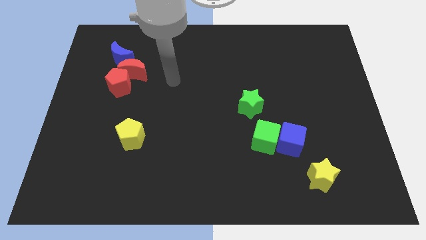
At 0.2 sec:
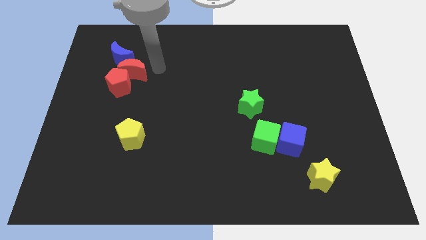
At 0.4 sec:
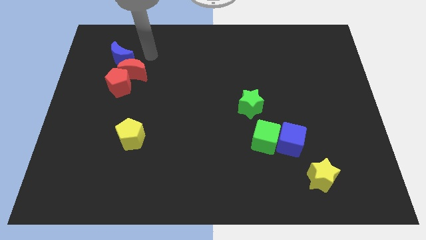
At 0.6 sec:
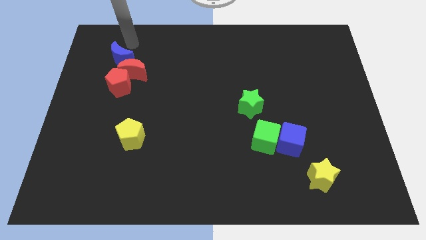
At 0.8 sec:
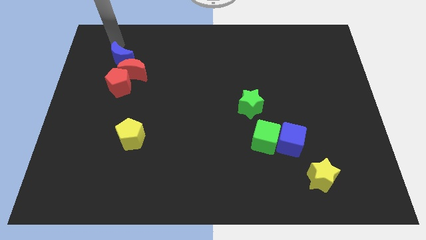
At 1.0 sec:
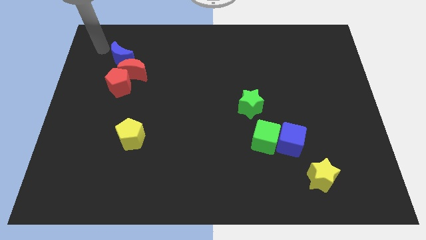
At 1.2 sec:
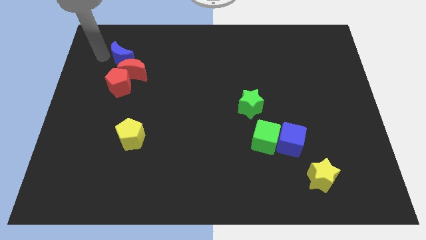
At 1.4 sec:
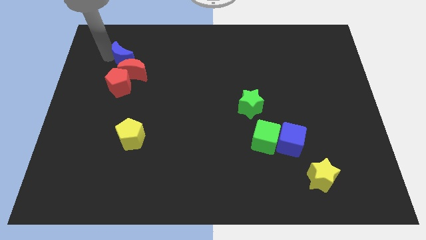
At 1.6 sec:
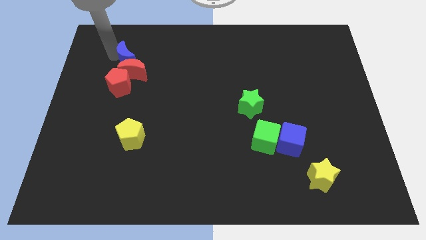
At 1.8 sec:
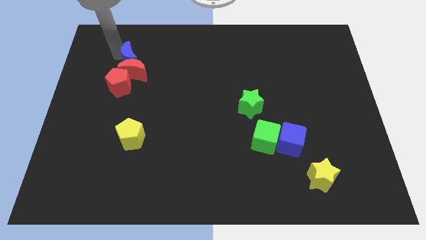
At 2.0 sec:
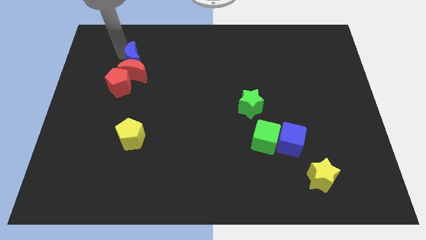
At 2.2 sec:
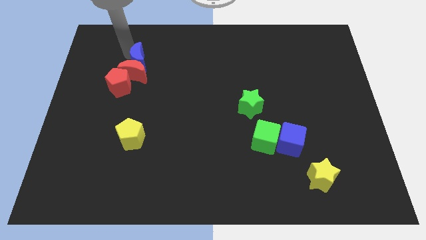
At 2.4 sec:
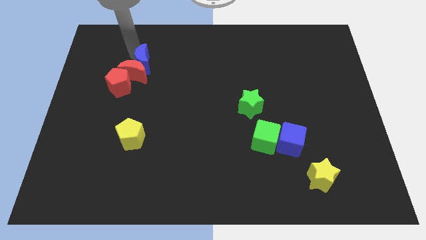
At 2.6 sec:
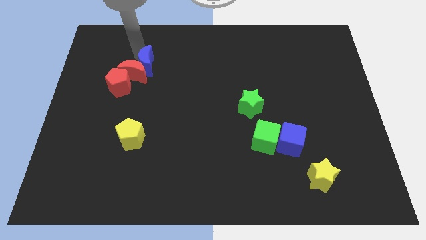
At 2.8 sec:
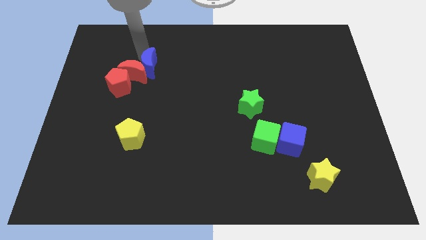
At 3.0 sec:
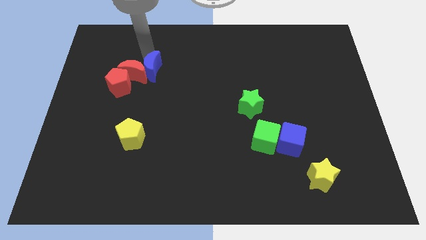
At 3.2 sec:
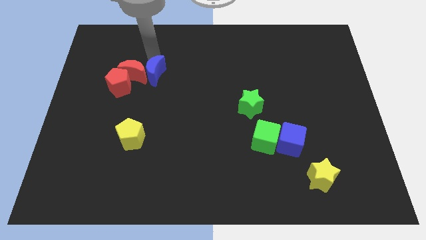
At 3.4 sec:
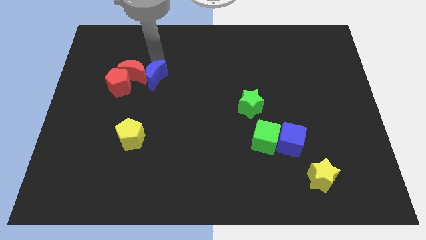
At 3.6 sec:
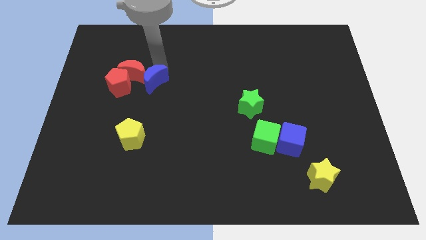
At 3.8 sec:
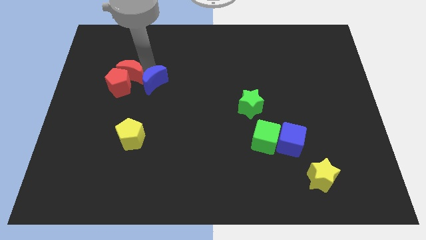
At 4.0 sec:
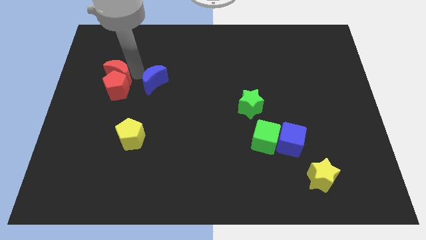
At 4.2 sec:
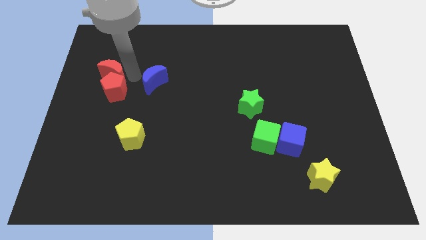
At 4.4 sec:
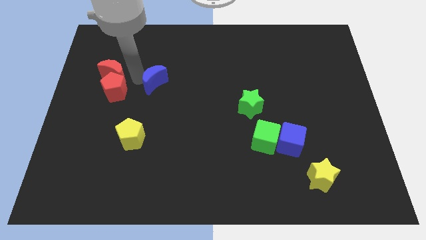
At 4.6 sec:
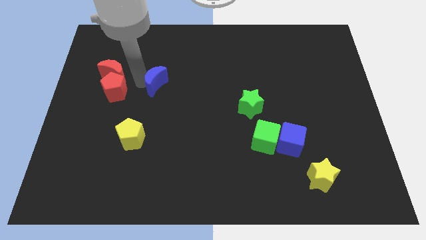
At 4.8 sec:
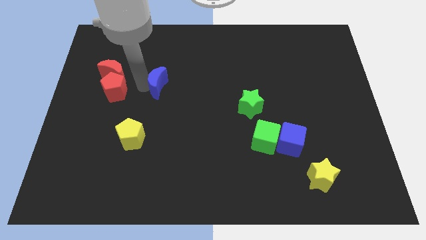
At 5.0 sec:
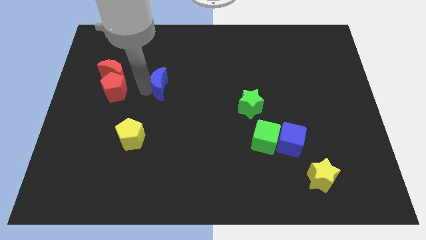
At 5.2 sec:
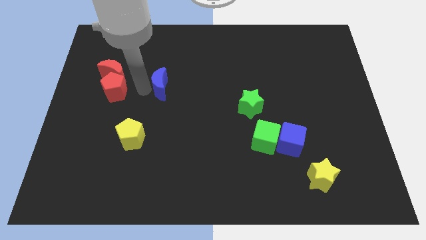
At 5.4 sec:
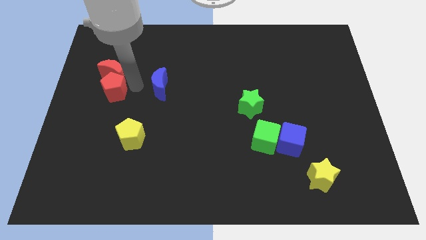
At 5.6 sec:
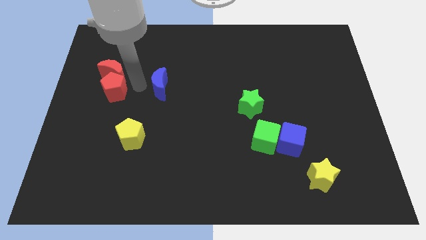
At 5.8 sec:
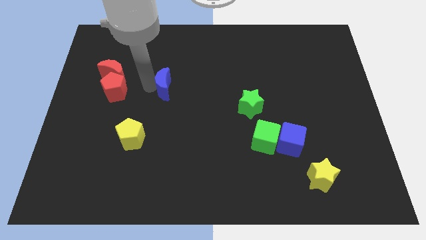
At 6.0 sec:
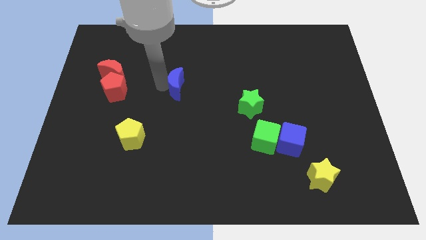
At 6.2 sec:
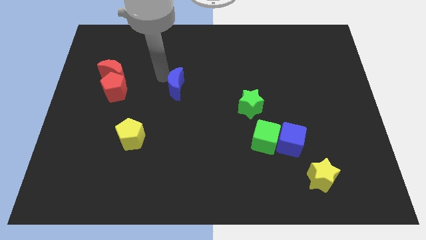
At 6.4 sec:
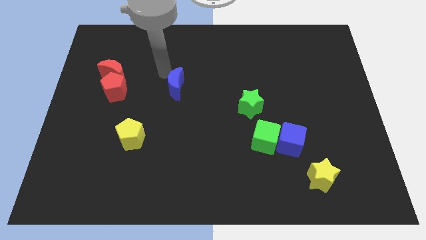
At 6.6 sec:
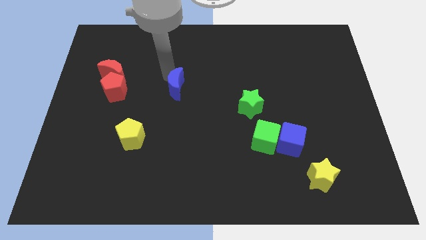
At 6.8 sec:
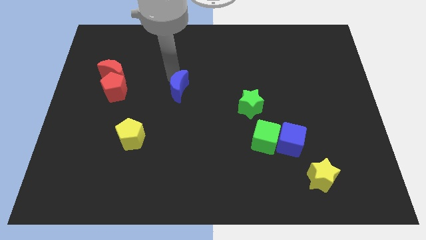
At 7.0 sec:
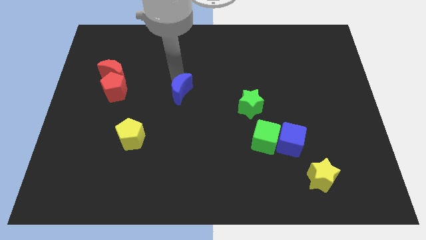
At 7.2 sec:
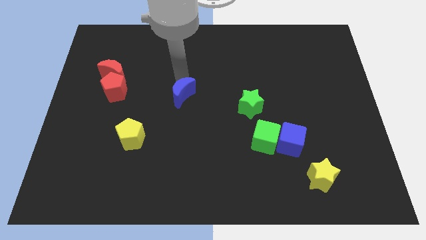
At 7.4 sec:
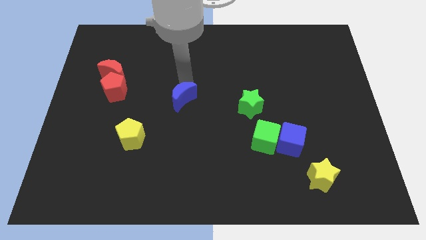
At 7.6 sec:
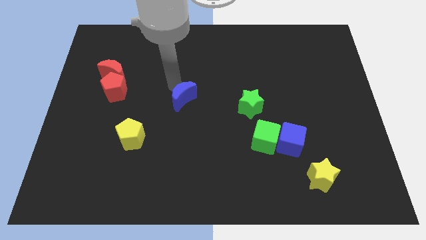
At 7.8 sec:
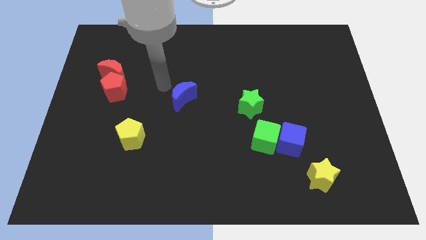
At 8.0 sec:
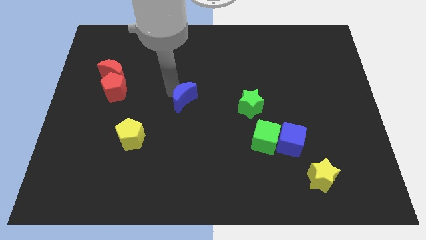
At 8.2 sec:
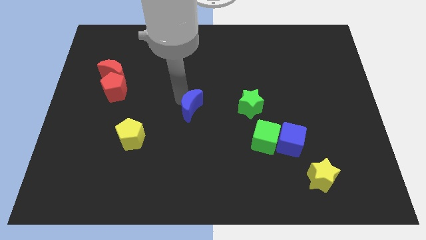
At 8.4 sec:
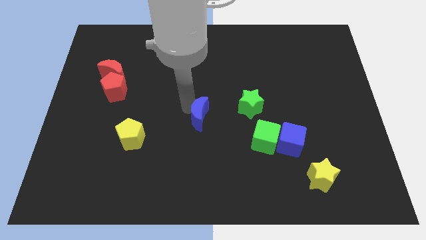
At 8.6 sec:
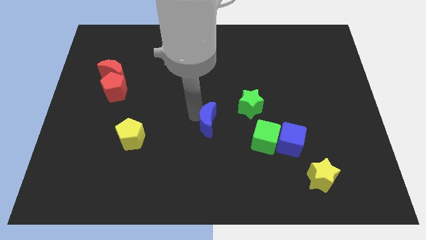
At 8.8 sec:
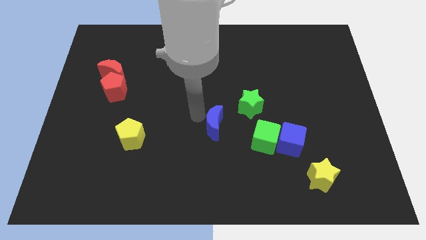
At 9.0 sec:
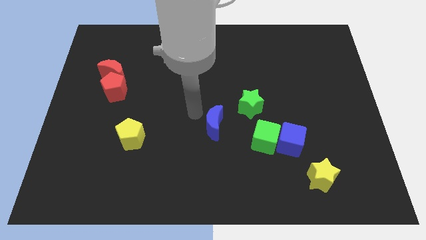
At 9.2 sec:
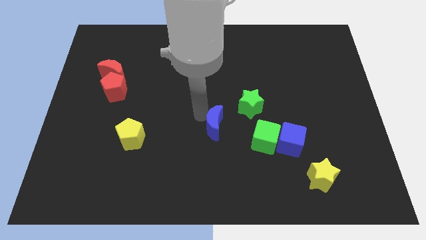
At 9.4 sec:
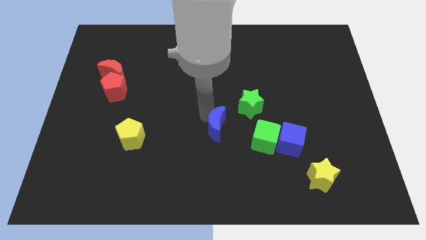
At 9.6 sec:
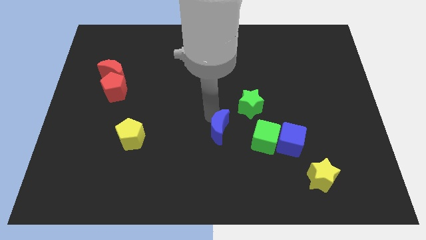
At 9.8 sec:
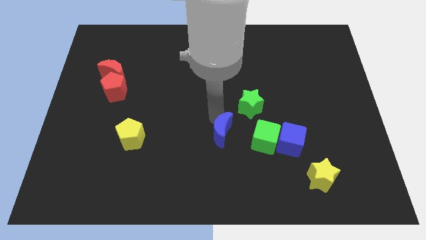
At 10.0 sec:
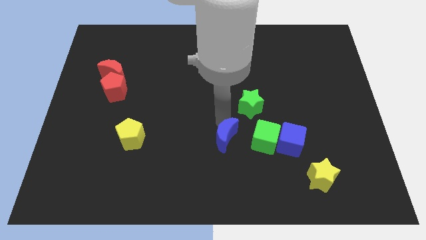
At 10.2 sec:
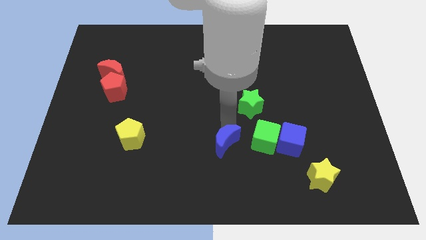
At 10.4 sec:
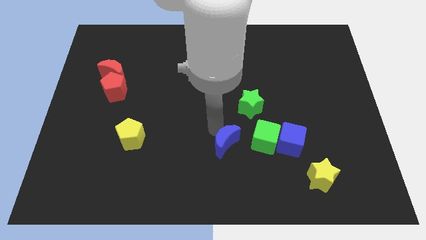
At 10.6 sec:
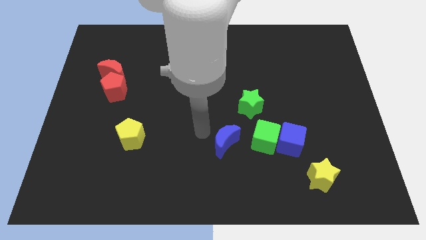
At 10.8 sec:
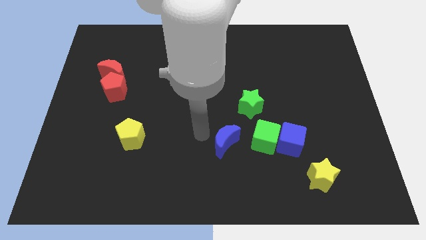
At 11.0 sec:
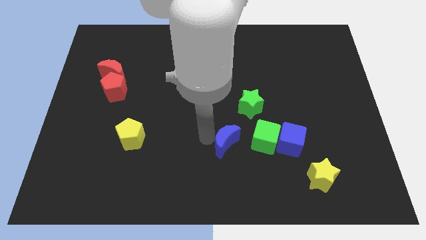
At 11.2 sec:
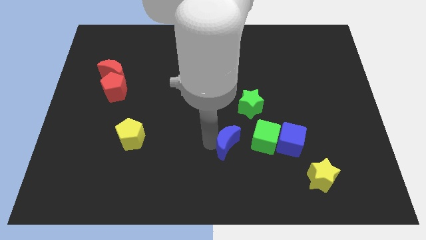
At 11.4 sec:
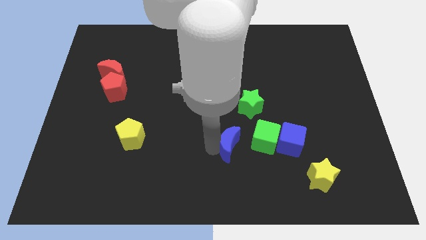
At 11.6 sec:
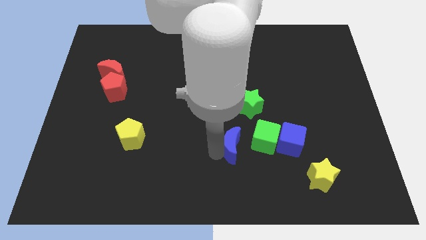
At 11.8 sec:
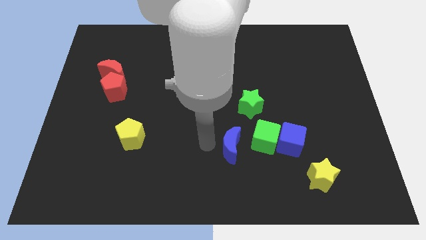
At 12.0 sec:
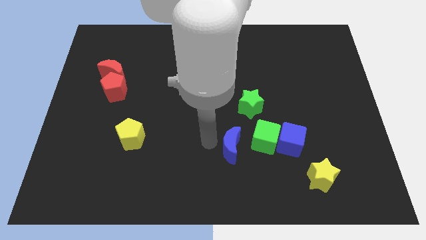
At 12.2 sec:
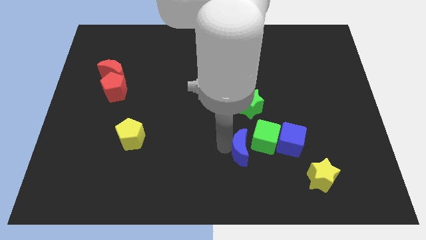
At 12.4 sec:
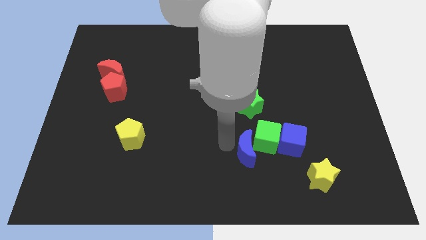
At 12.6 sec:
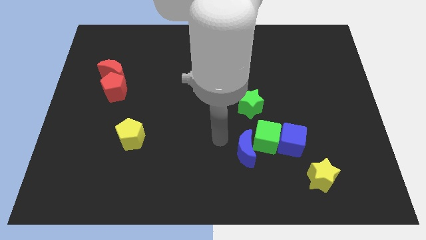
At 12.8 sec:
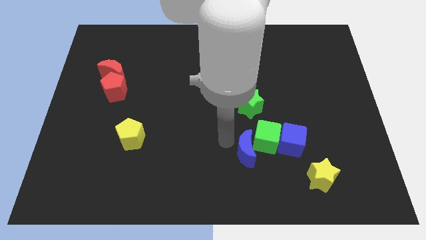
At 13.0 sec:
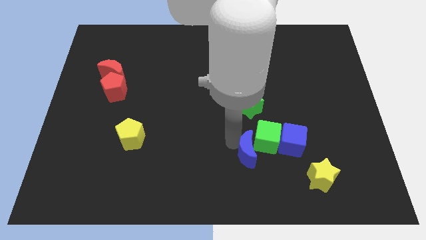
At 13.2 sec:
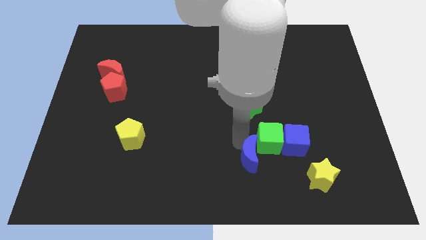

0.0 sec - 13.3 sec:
push the blue moon to the bottom left side of the blue cube
